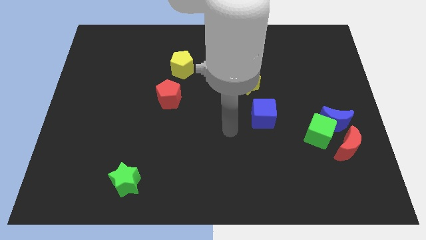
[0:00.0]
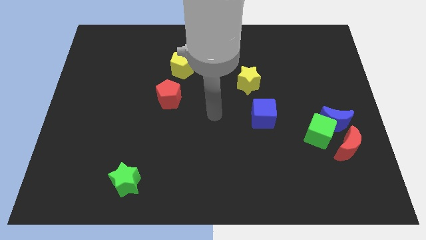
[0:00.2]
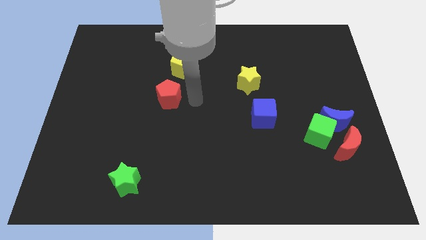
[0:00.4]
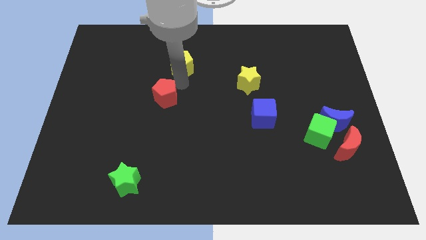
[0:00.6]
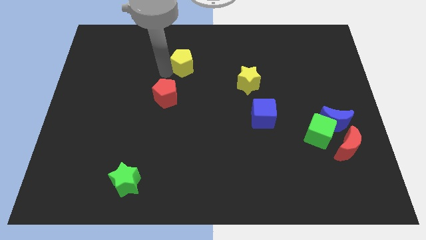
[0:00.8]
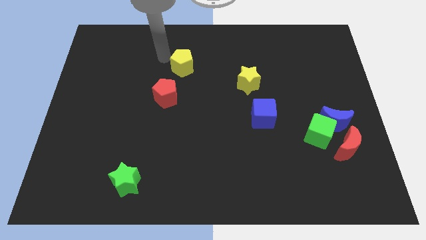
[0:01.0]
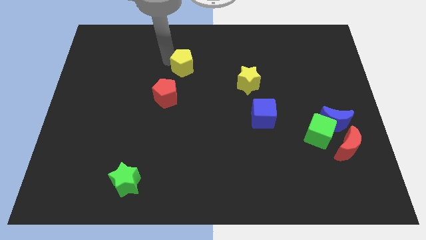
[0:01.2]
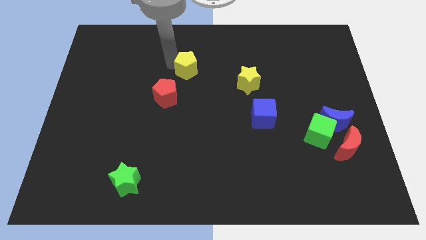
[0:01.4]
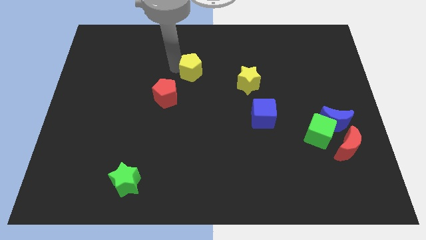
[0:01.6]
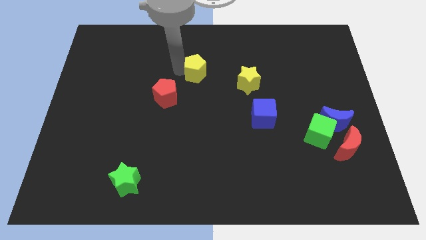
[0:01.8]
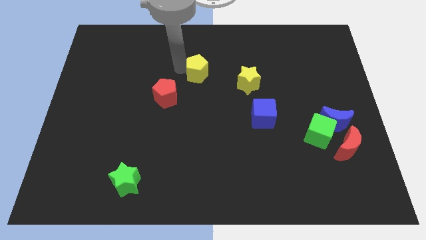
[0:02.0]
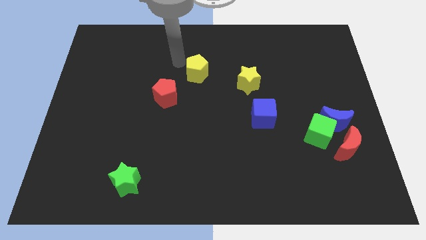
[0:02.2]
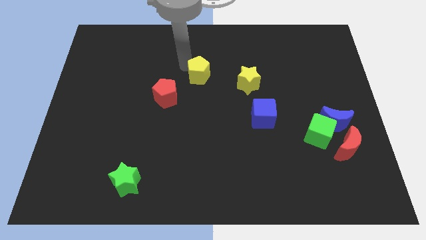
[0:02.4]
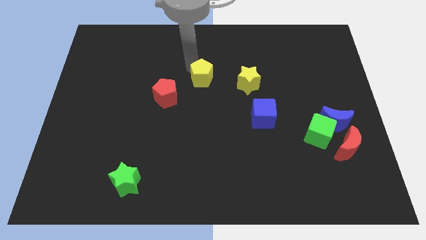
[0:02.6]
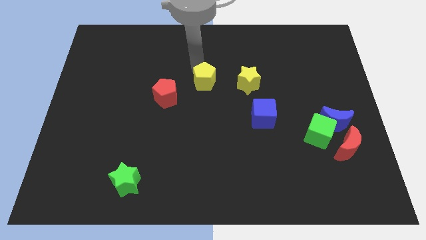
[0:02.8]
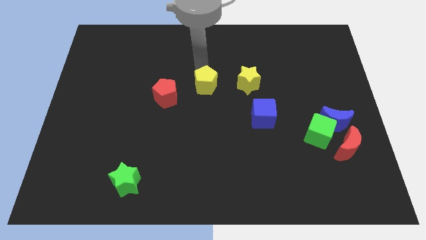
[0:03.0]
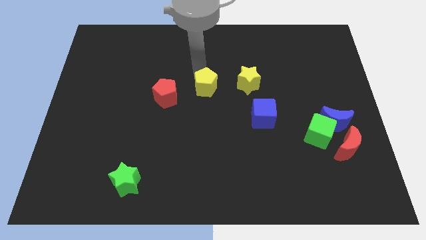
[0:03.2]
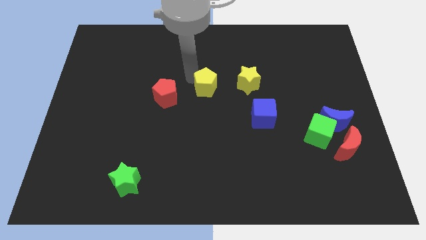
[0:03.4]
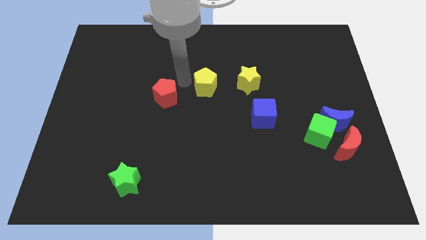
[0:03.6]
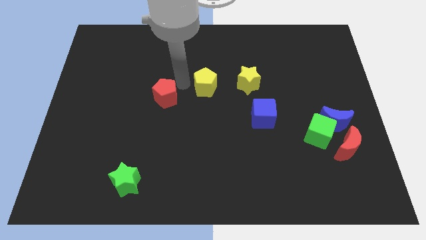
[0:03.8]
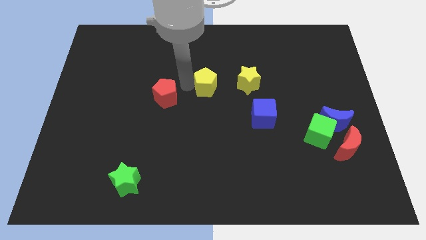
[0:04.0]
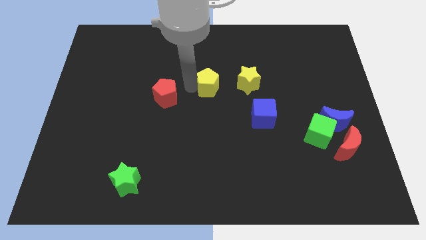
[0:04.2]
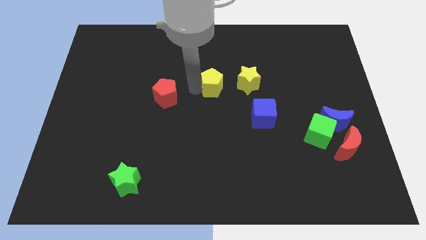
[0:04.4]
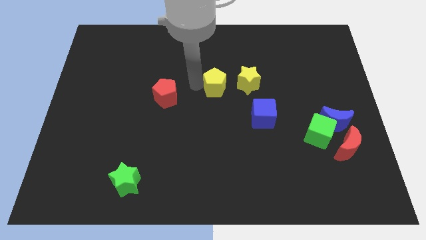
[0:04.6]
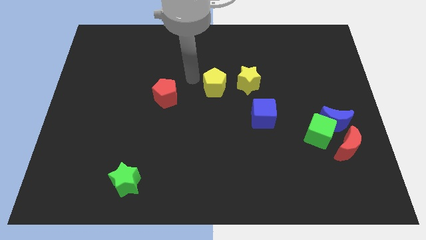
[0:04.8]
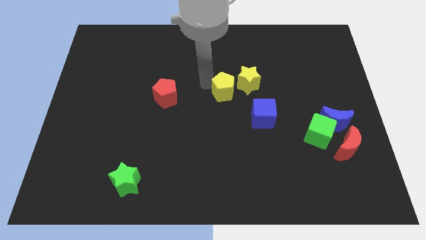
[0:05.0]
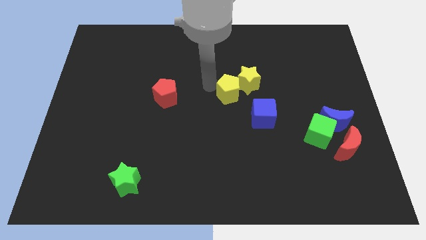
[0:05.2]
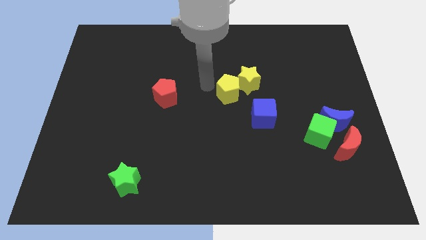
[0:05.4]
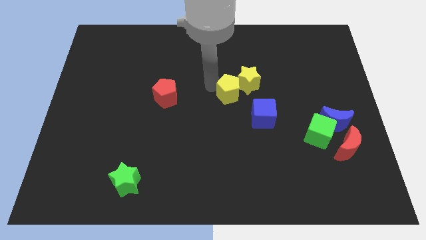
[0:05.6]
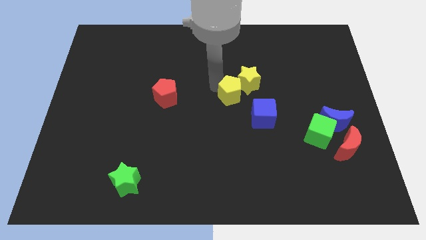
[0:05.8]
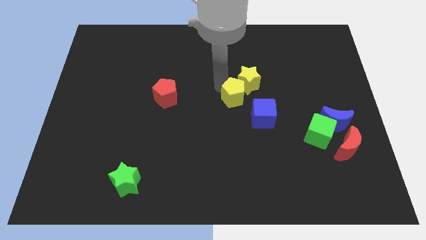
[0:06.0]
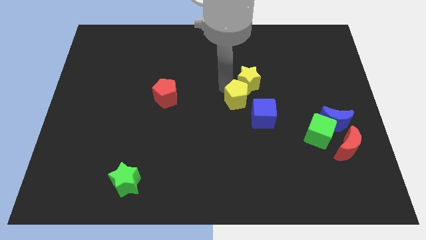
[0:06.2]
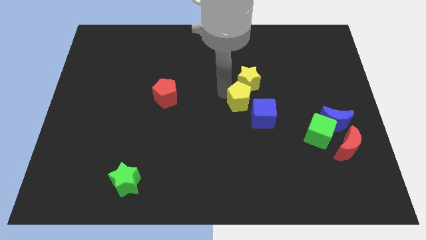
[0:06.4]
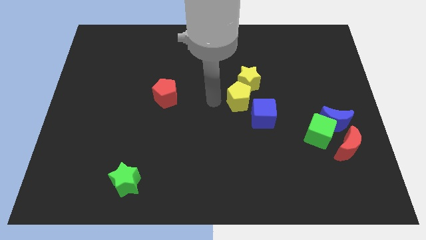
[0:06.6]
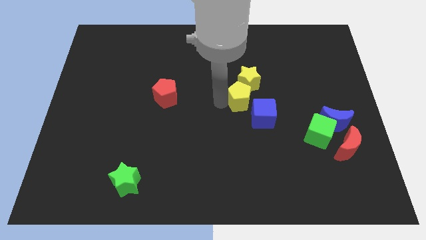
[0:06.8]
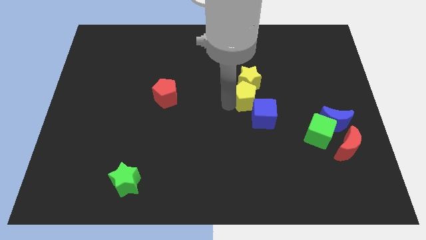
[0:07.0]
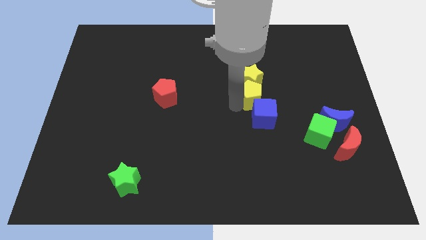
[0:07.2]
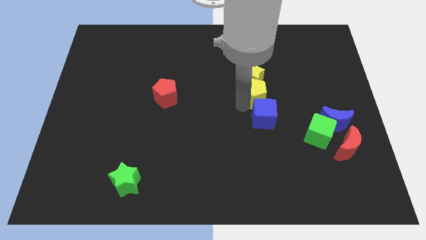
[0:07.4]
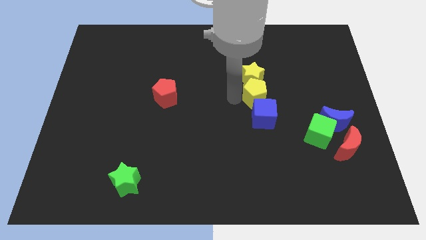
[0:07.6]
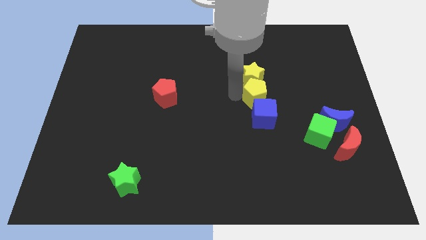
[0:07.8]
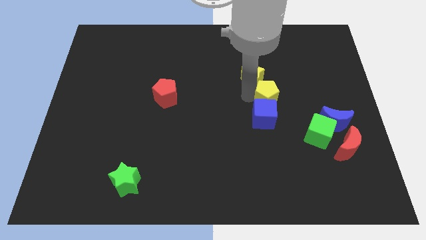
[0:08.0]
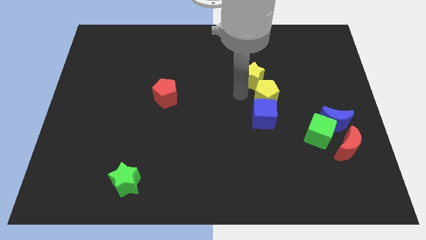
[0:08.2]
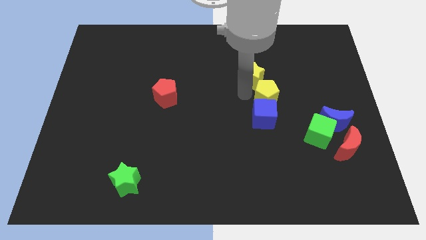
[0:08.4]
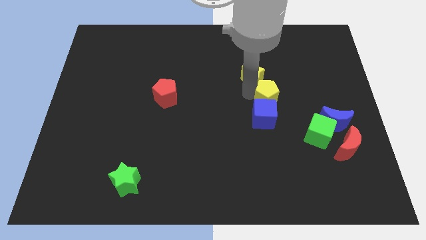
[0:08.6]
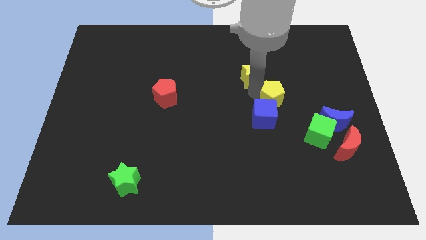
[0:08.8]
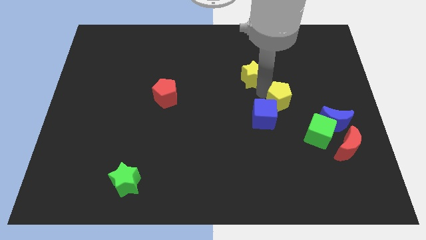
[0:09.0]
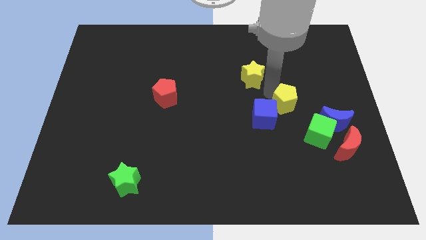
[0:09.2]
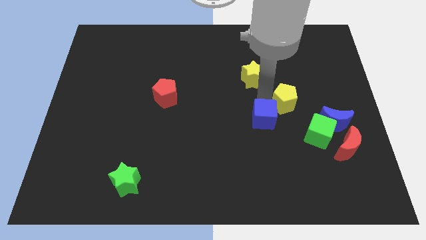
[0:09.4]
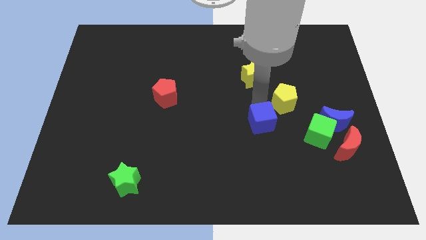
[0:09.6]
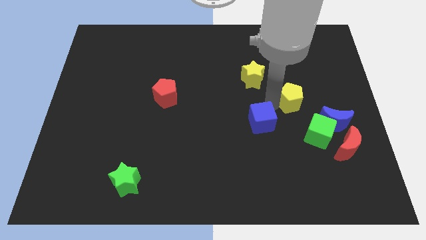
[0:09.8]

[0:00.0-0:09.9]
slide the yellow pentagon to the top side of the green cube

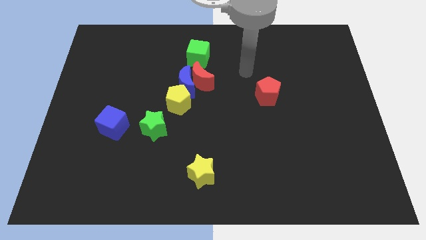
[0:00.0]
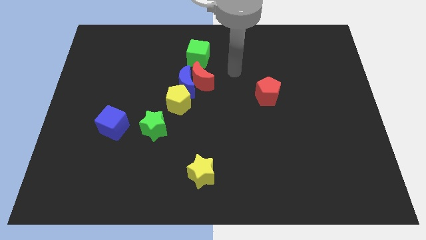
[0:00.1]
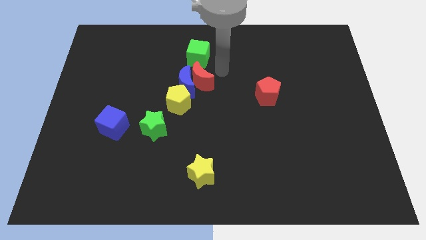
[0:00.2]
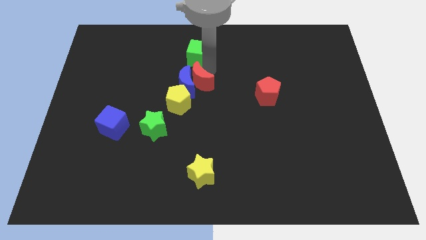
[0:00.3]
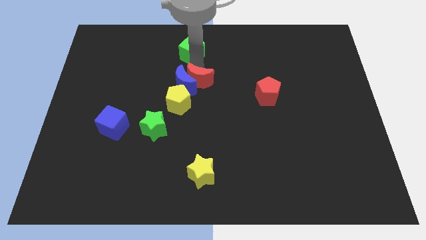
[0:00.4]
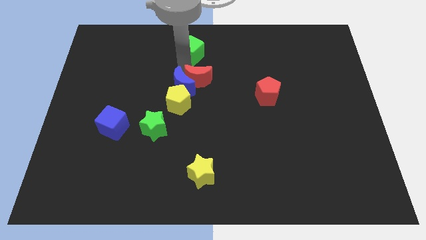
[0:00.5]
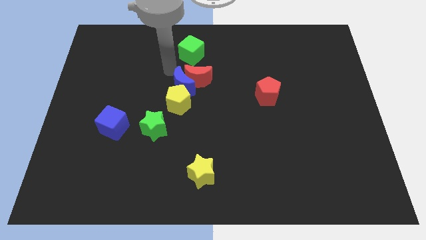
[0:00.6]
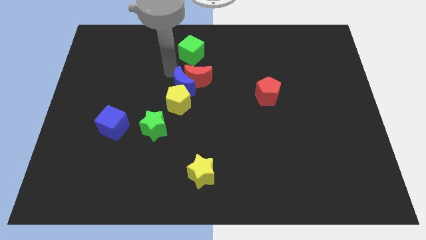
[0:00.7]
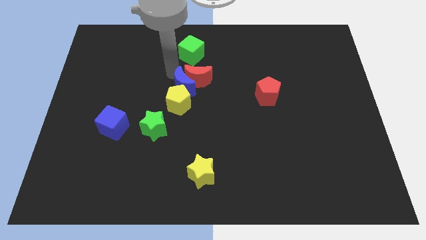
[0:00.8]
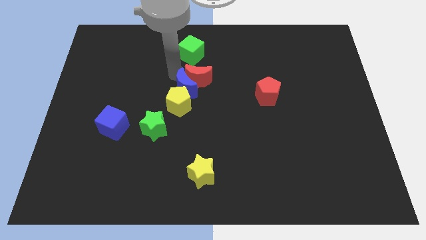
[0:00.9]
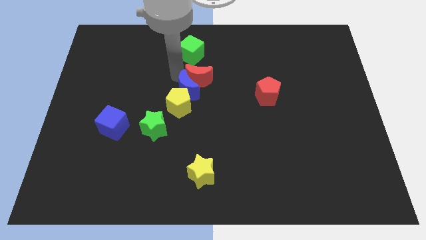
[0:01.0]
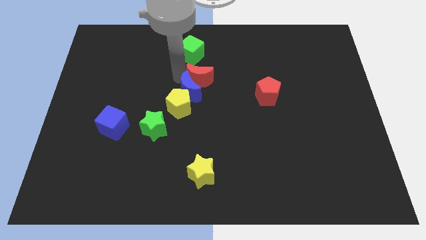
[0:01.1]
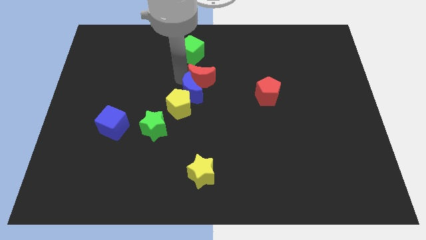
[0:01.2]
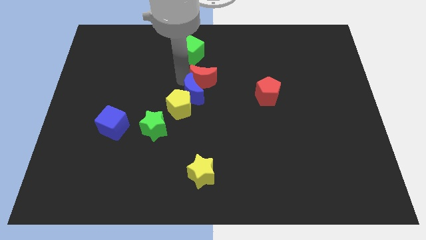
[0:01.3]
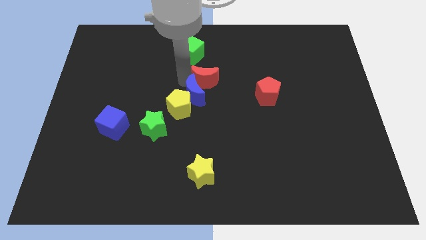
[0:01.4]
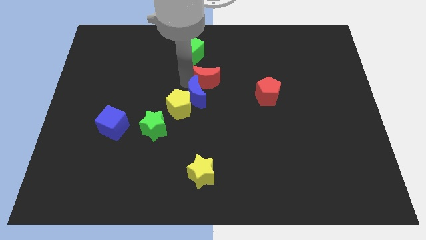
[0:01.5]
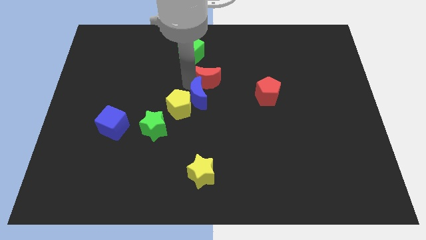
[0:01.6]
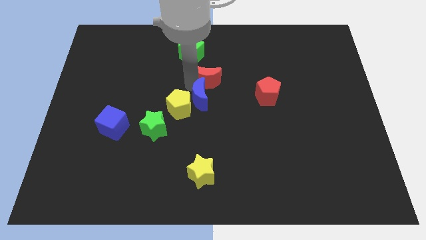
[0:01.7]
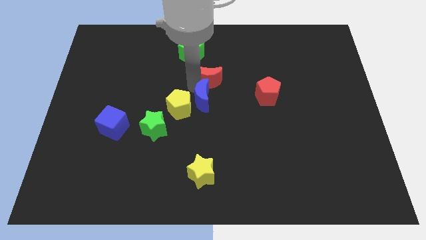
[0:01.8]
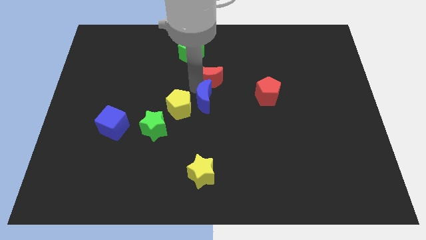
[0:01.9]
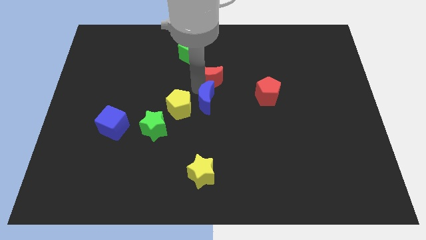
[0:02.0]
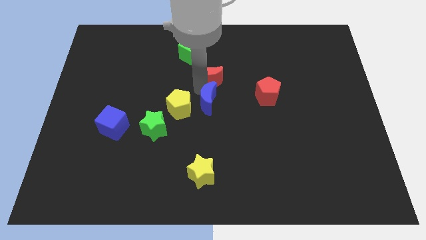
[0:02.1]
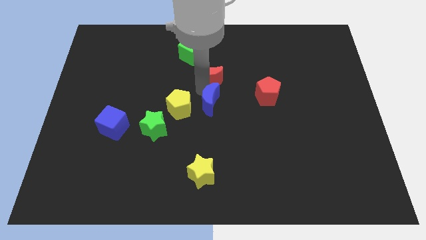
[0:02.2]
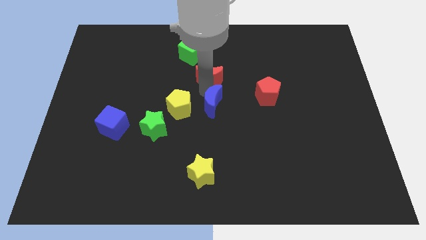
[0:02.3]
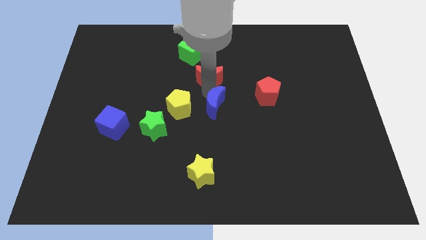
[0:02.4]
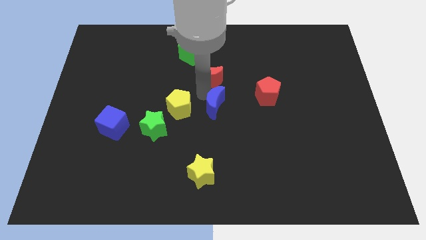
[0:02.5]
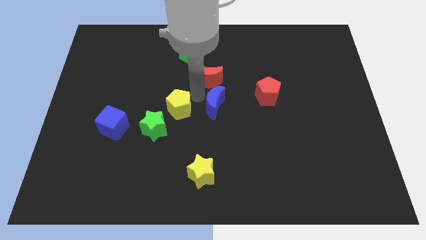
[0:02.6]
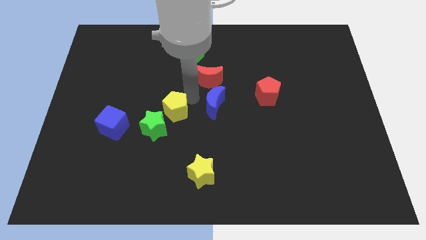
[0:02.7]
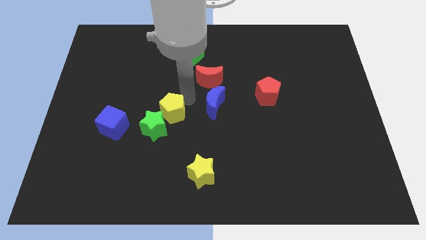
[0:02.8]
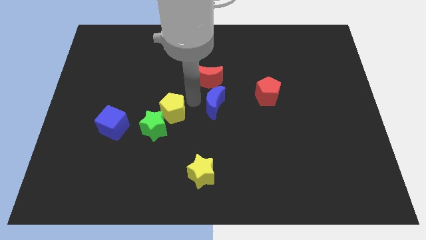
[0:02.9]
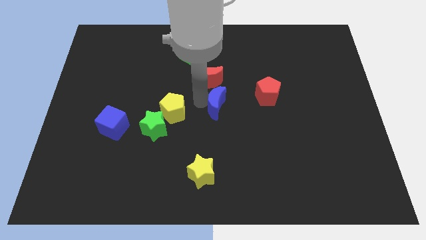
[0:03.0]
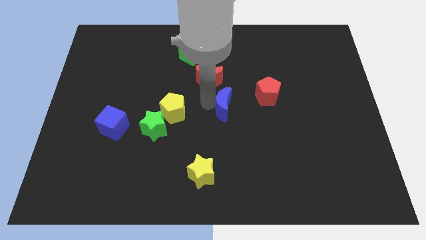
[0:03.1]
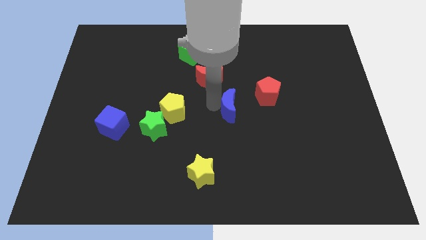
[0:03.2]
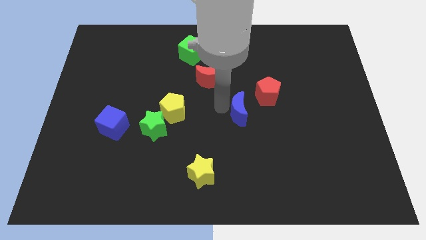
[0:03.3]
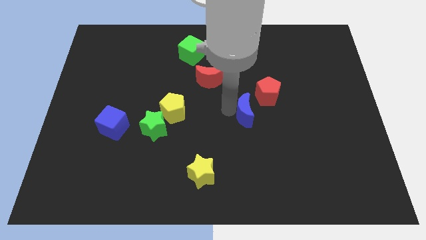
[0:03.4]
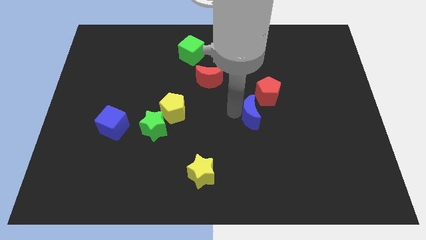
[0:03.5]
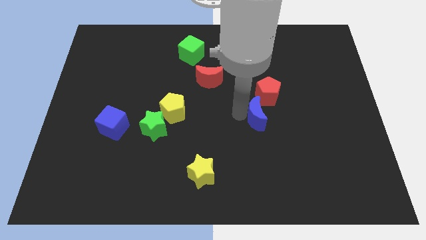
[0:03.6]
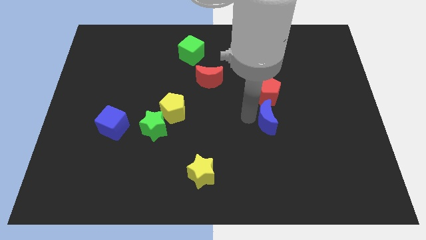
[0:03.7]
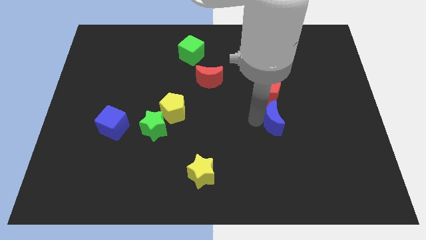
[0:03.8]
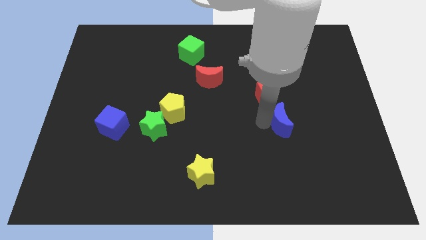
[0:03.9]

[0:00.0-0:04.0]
slide the blue moon to the bottom right of the red pentagon
